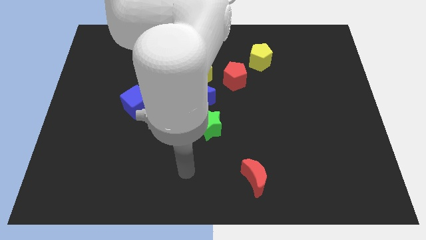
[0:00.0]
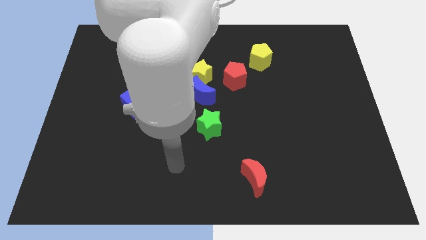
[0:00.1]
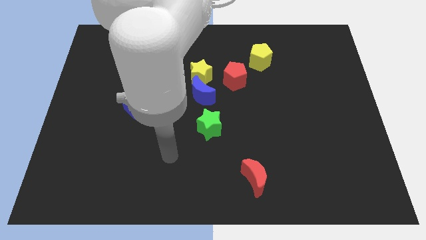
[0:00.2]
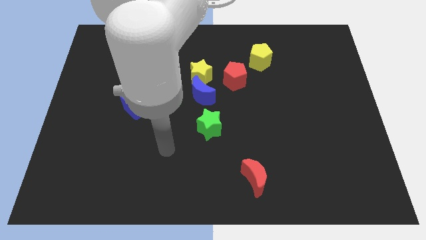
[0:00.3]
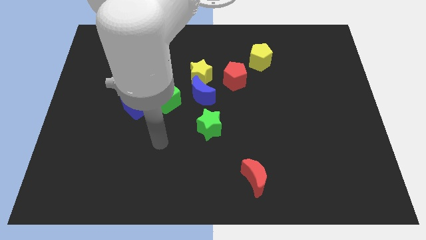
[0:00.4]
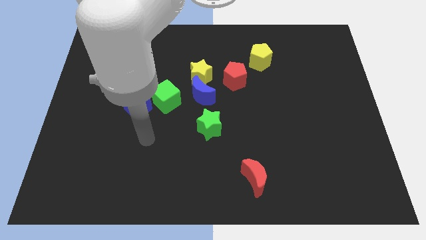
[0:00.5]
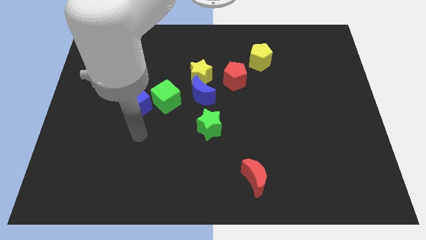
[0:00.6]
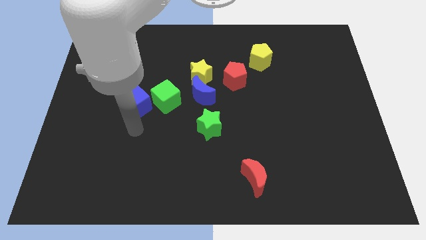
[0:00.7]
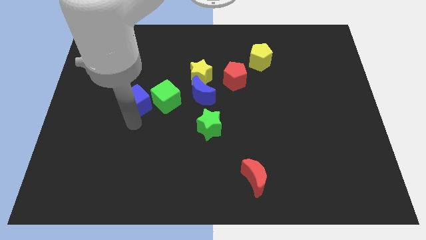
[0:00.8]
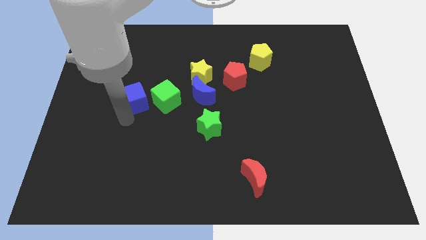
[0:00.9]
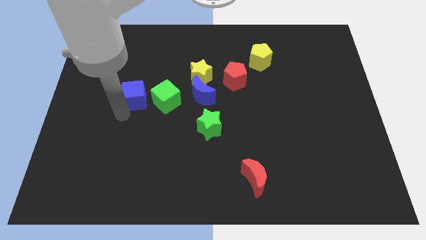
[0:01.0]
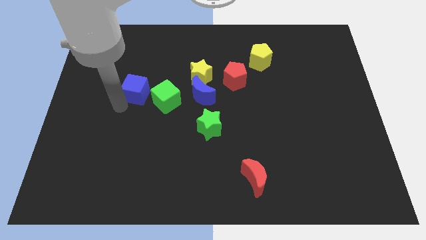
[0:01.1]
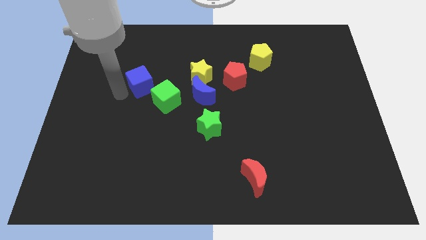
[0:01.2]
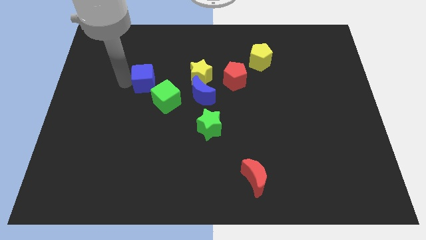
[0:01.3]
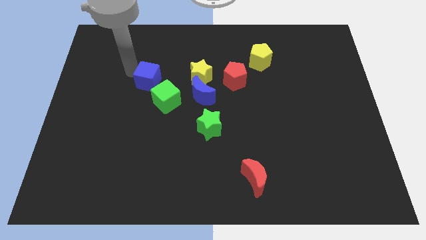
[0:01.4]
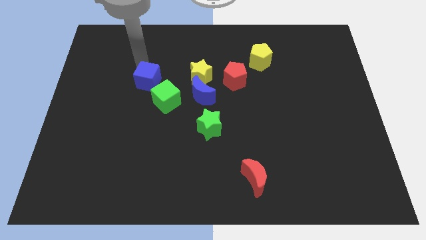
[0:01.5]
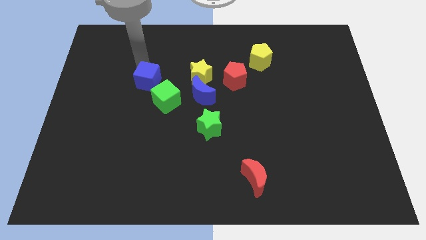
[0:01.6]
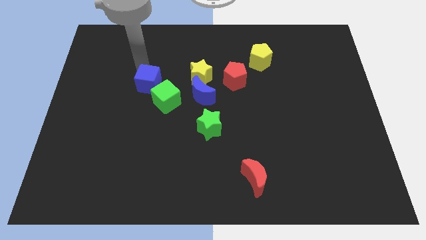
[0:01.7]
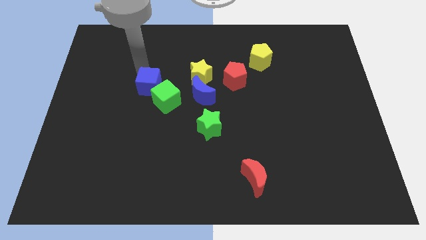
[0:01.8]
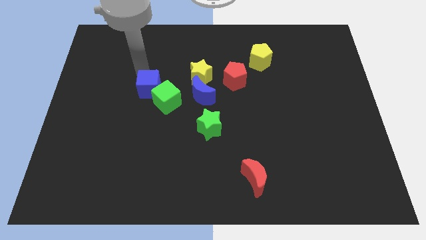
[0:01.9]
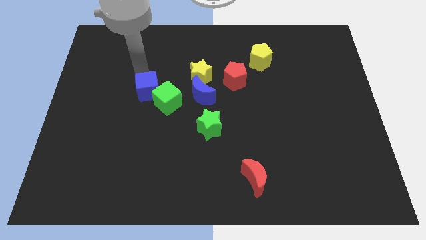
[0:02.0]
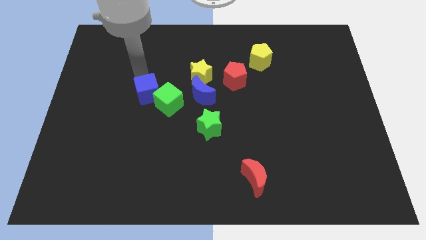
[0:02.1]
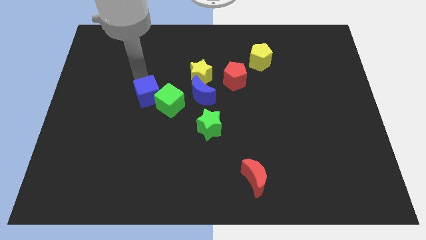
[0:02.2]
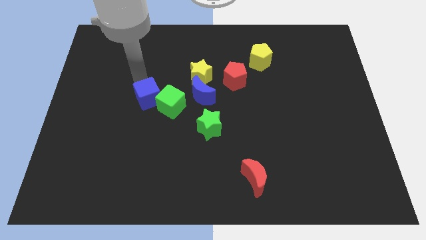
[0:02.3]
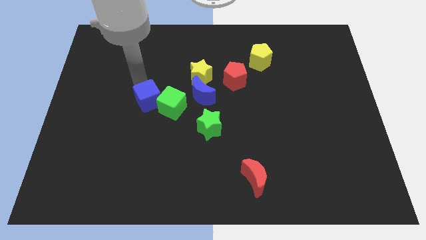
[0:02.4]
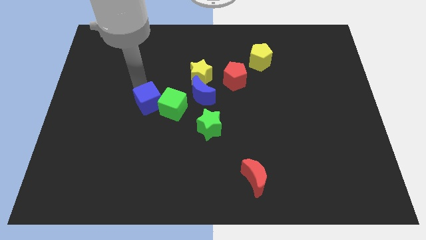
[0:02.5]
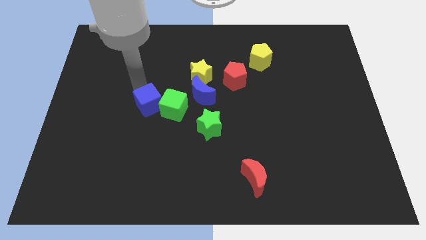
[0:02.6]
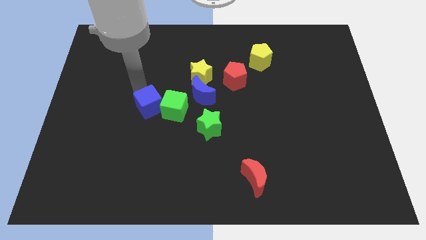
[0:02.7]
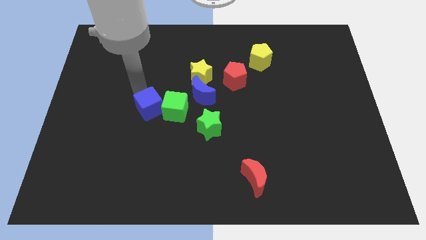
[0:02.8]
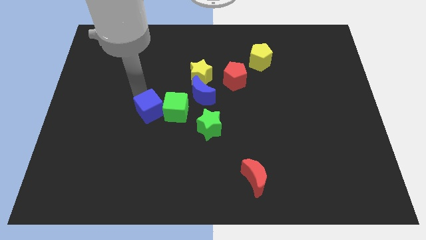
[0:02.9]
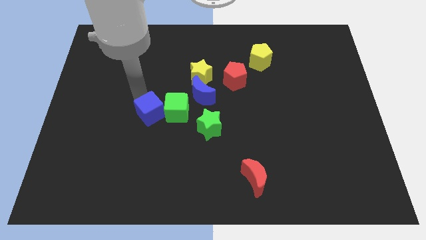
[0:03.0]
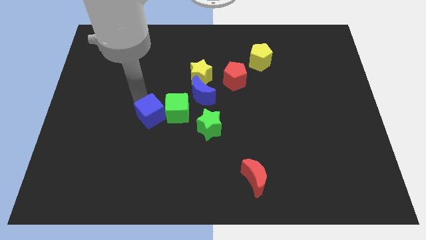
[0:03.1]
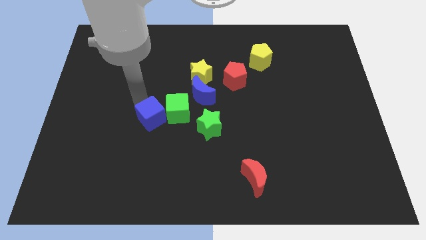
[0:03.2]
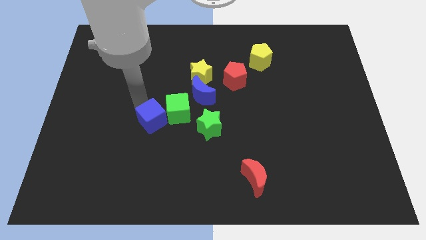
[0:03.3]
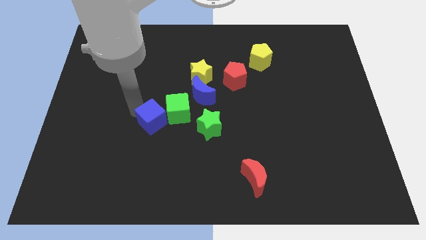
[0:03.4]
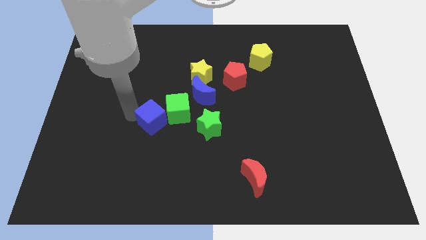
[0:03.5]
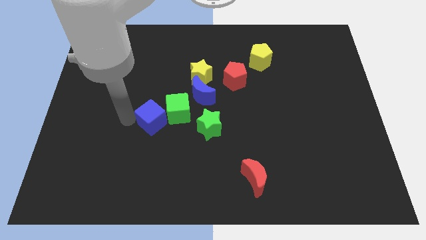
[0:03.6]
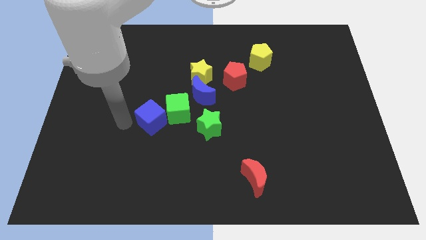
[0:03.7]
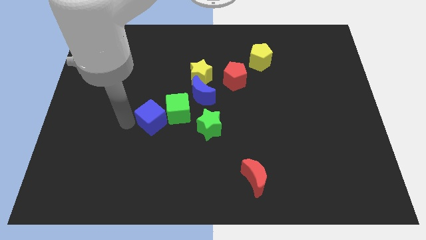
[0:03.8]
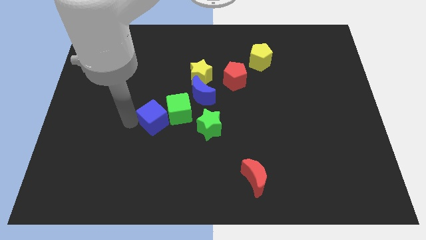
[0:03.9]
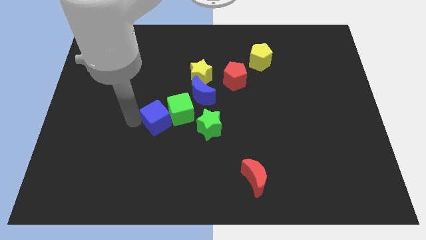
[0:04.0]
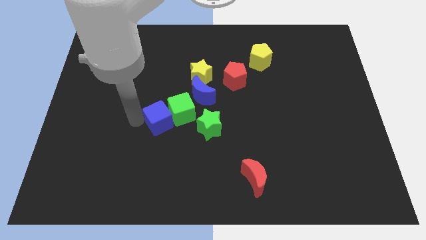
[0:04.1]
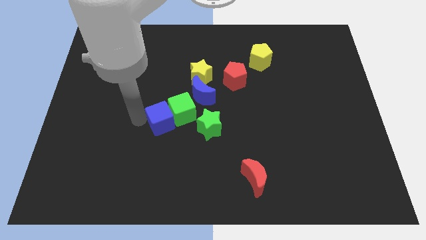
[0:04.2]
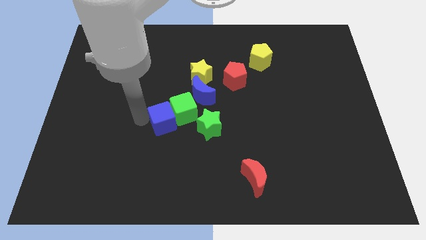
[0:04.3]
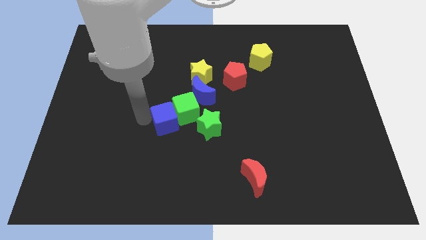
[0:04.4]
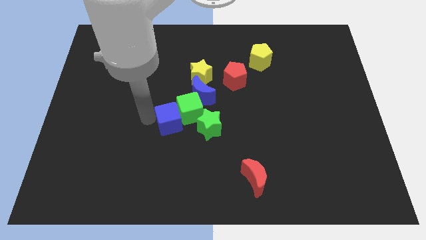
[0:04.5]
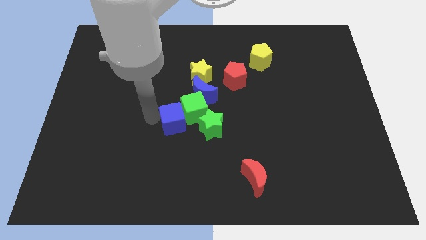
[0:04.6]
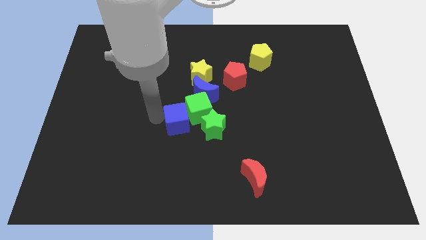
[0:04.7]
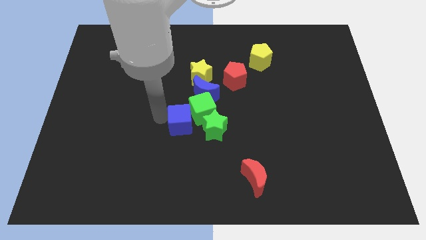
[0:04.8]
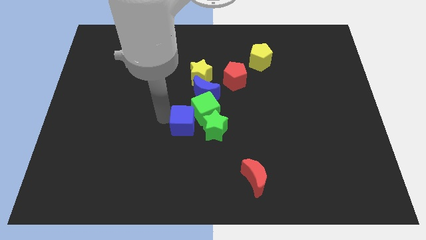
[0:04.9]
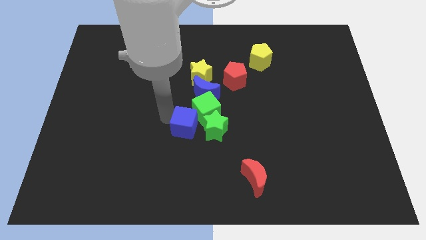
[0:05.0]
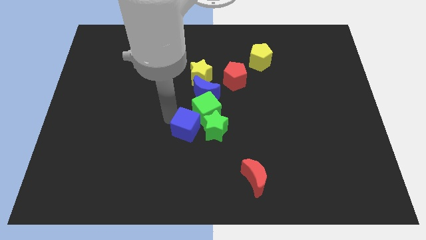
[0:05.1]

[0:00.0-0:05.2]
put the blue cube towards the green star

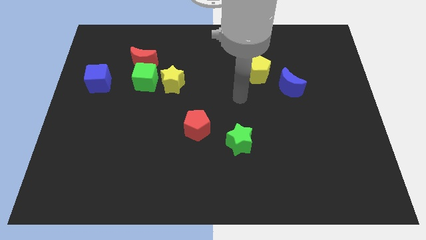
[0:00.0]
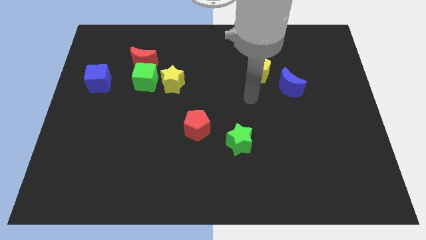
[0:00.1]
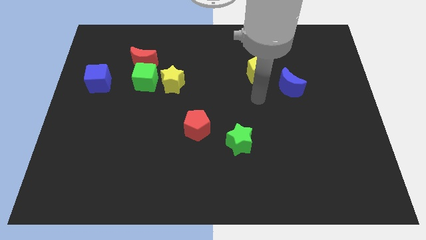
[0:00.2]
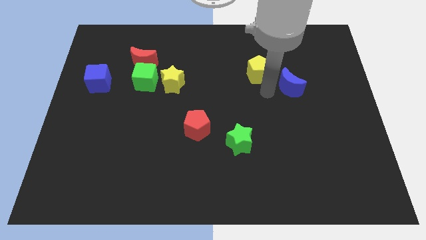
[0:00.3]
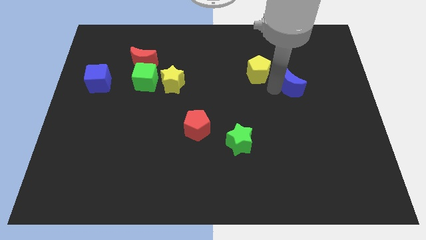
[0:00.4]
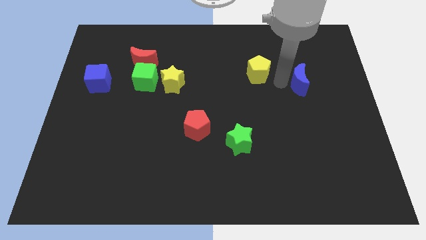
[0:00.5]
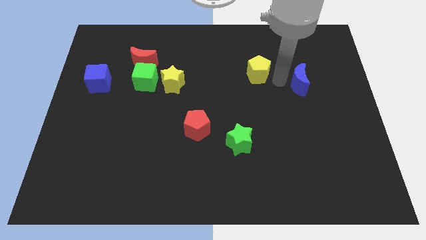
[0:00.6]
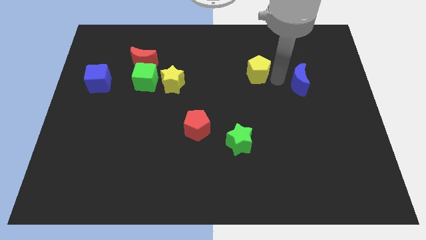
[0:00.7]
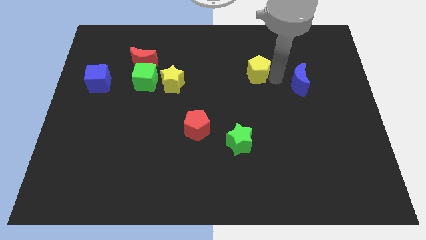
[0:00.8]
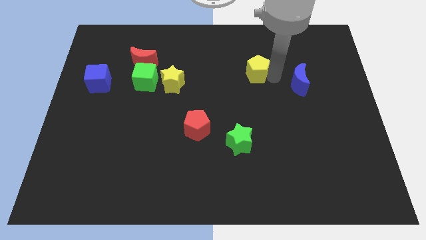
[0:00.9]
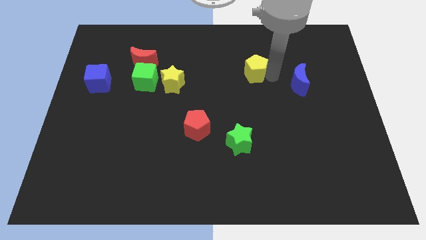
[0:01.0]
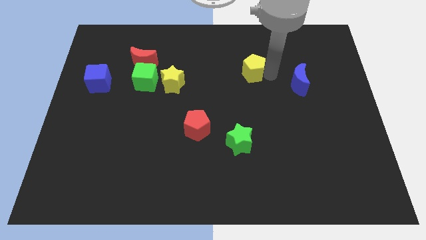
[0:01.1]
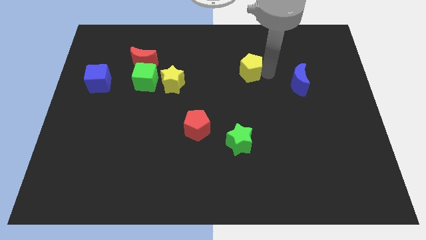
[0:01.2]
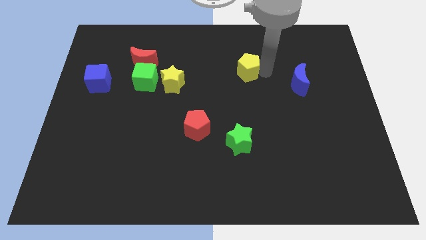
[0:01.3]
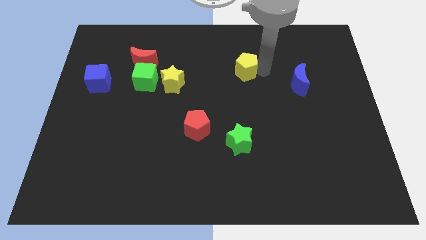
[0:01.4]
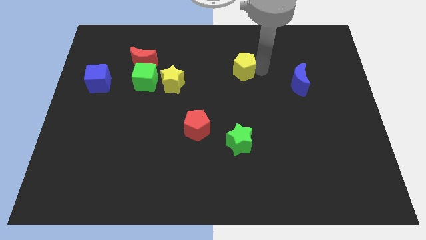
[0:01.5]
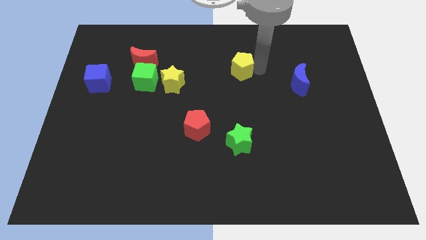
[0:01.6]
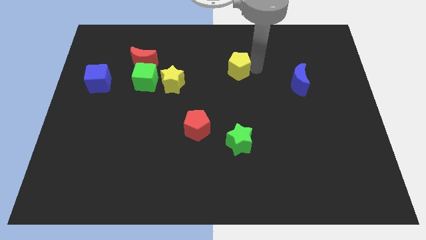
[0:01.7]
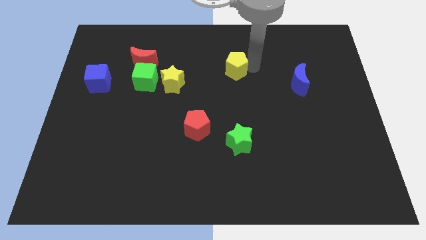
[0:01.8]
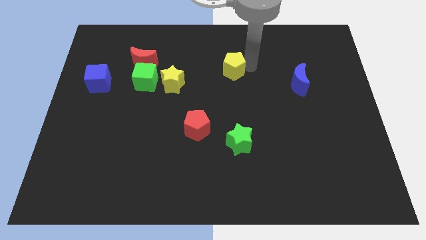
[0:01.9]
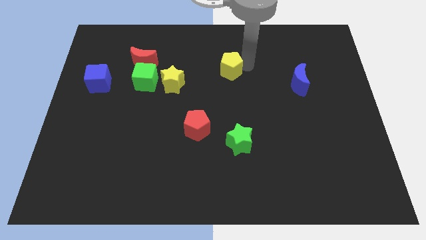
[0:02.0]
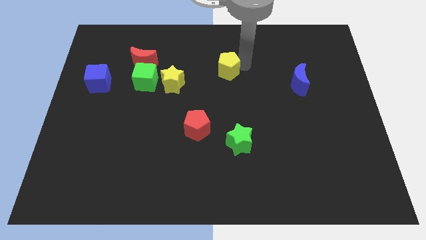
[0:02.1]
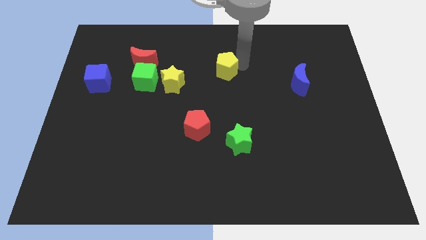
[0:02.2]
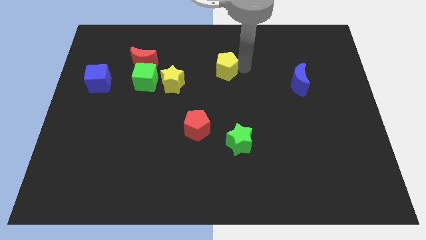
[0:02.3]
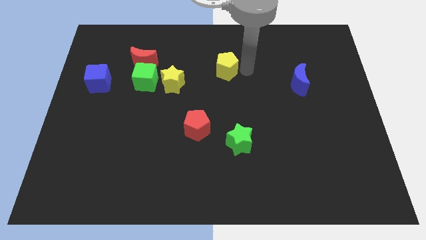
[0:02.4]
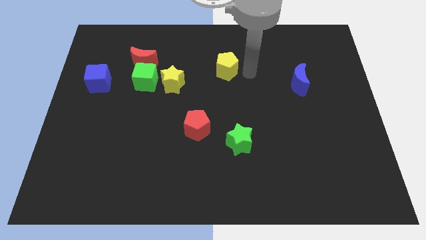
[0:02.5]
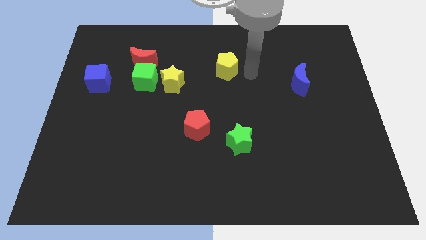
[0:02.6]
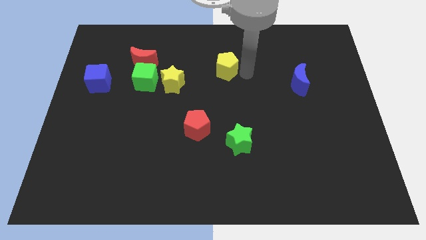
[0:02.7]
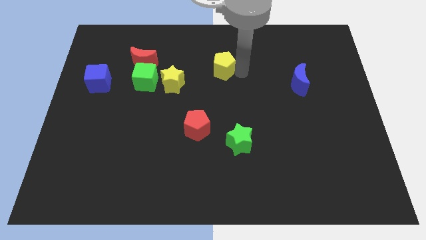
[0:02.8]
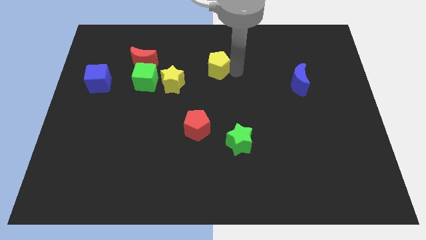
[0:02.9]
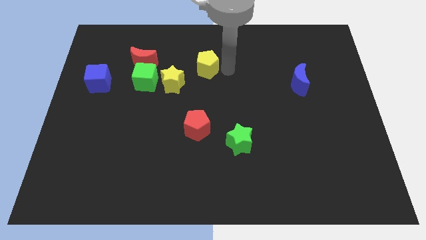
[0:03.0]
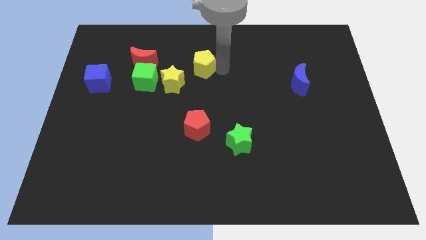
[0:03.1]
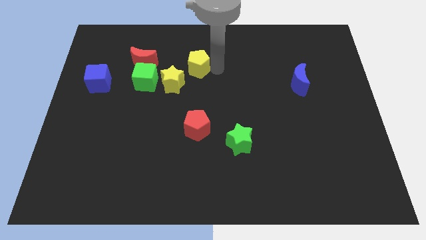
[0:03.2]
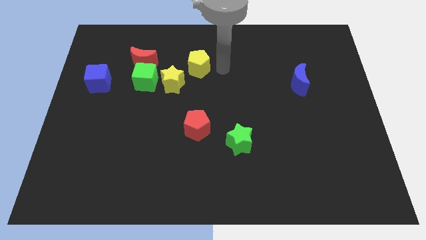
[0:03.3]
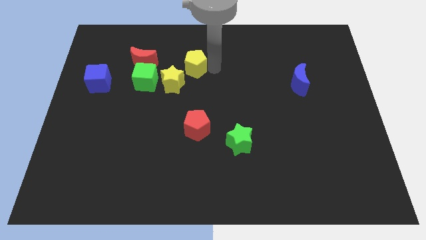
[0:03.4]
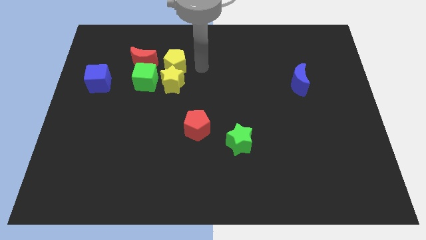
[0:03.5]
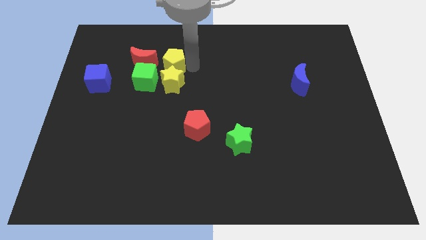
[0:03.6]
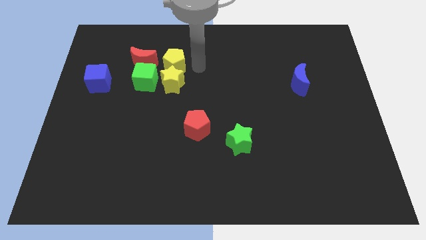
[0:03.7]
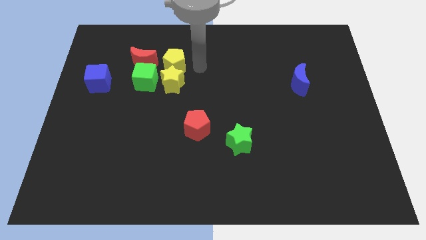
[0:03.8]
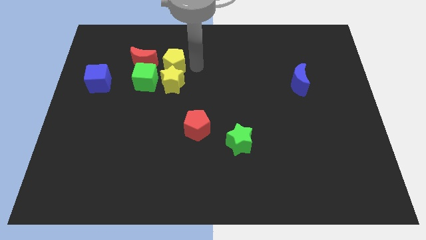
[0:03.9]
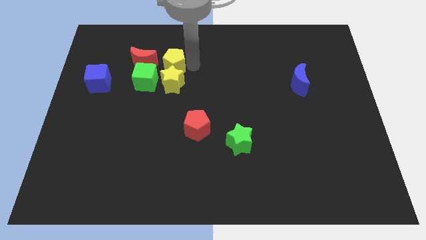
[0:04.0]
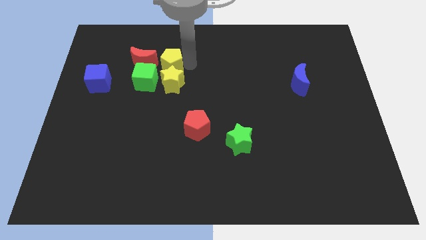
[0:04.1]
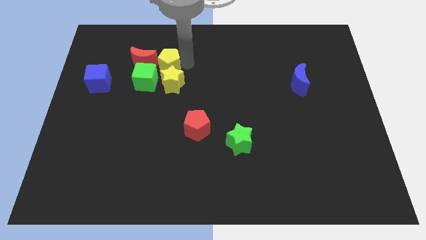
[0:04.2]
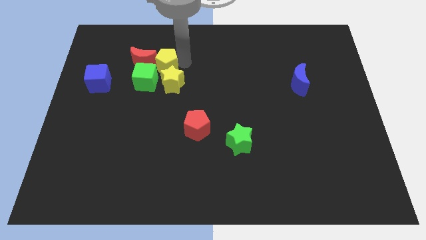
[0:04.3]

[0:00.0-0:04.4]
put the yellow pentagon to the red moon
